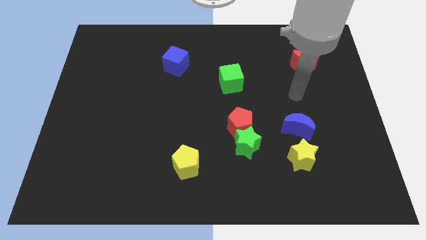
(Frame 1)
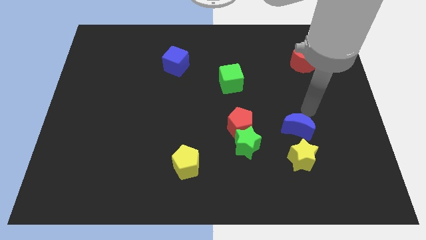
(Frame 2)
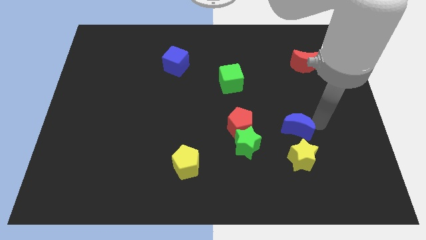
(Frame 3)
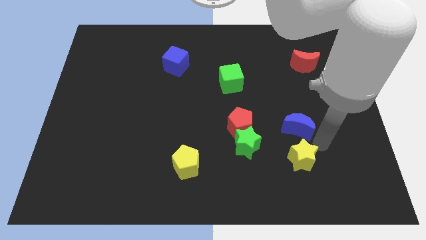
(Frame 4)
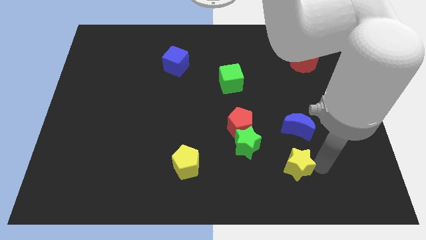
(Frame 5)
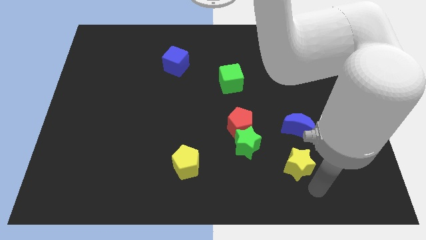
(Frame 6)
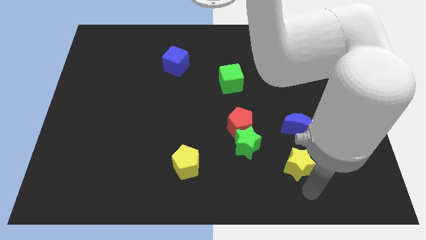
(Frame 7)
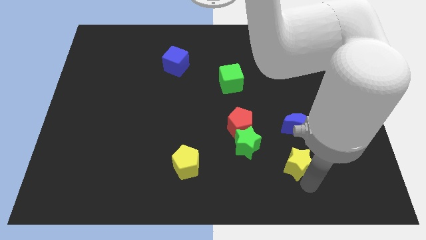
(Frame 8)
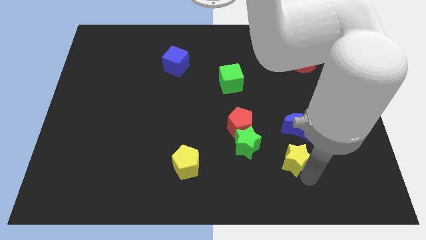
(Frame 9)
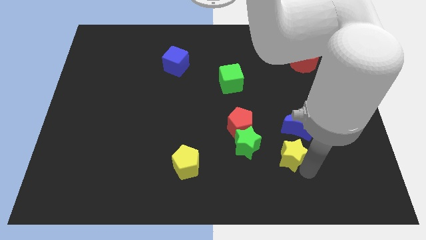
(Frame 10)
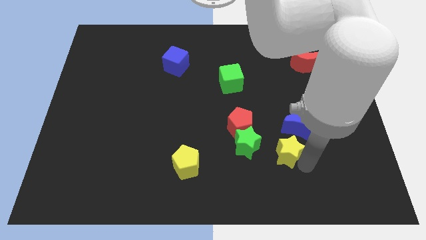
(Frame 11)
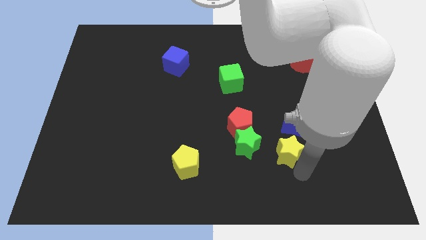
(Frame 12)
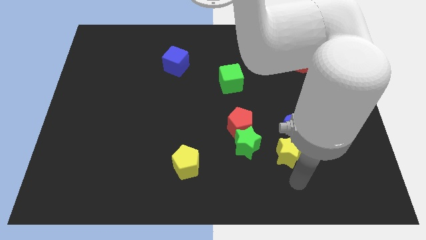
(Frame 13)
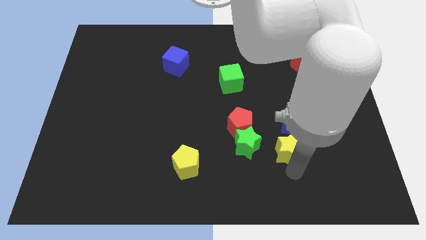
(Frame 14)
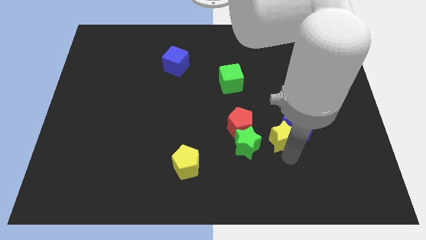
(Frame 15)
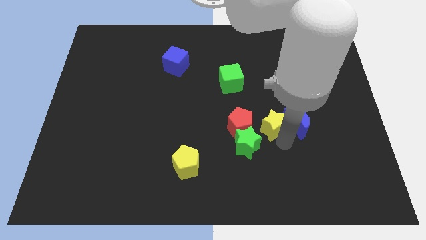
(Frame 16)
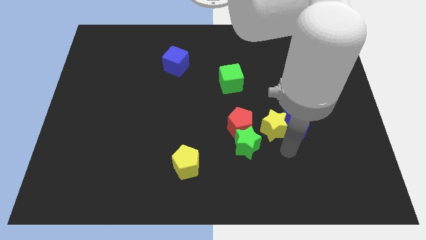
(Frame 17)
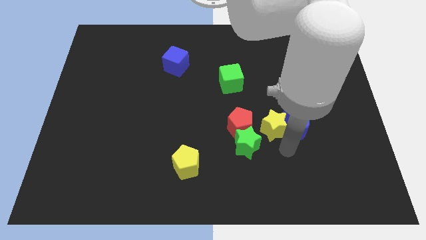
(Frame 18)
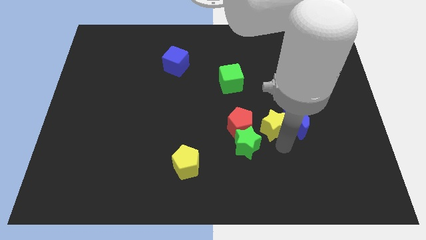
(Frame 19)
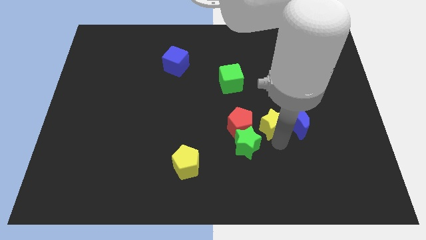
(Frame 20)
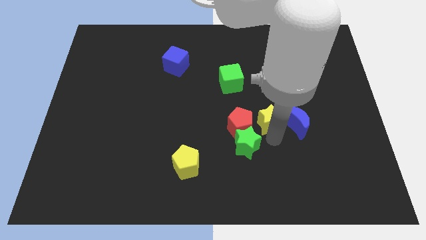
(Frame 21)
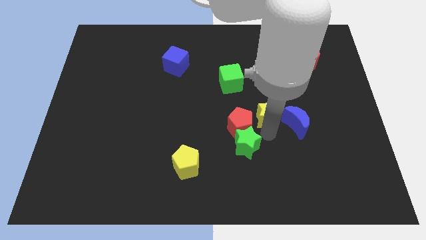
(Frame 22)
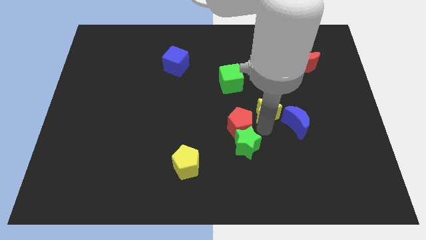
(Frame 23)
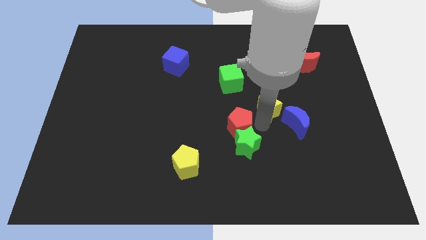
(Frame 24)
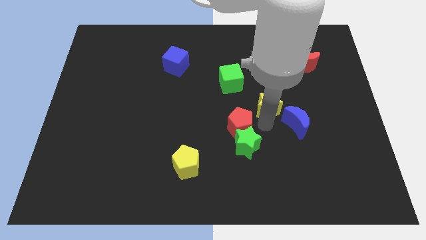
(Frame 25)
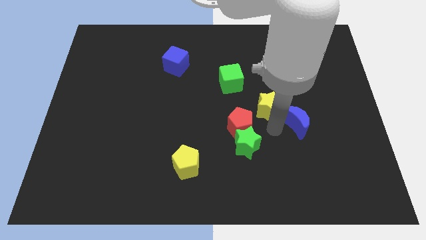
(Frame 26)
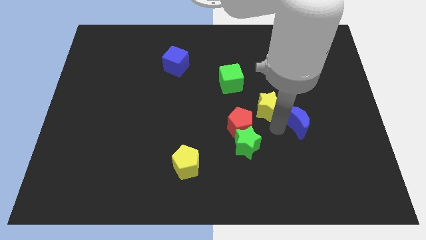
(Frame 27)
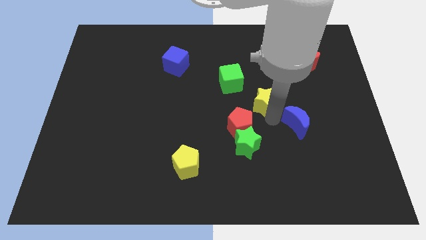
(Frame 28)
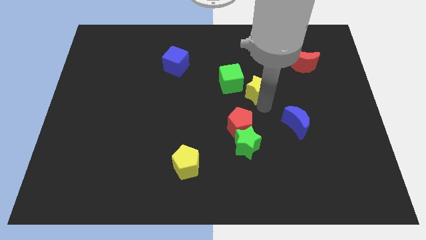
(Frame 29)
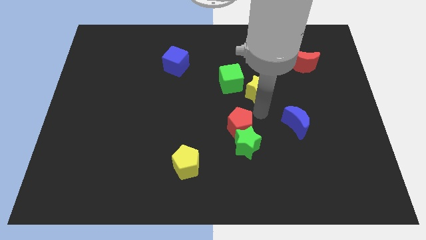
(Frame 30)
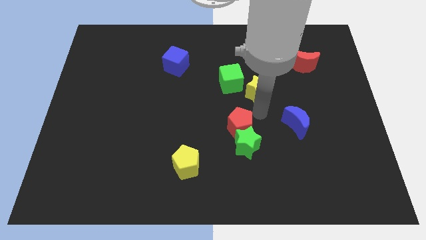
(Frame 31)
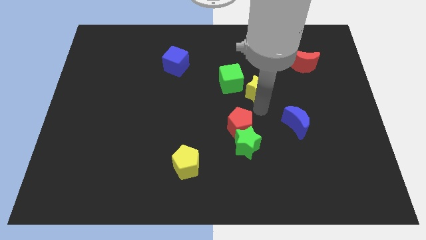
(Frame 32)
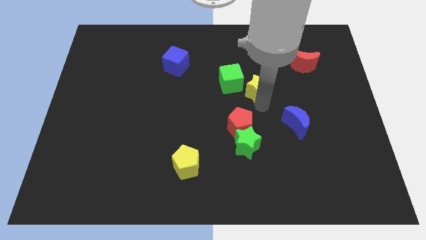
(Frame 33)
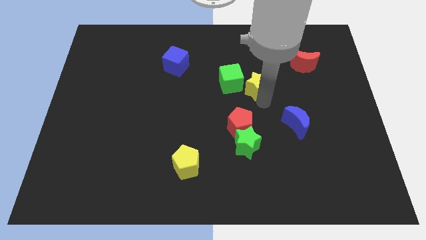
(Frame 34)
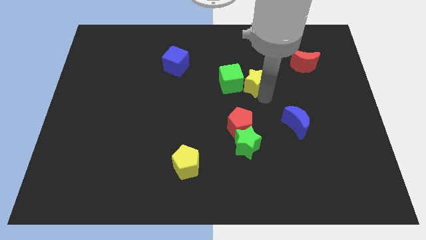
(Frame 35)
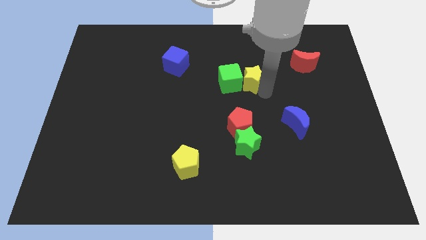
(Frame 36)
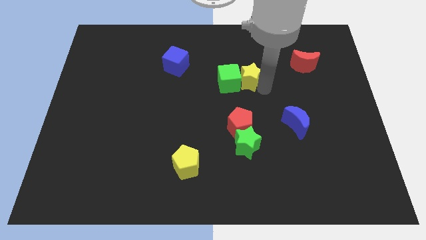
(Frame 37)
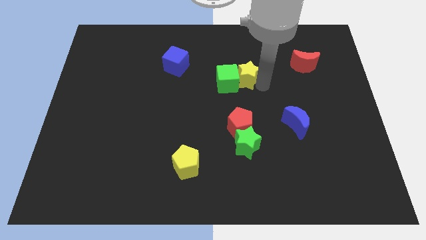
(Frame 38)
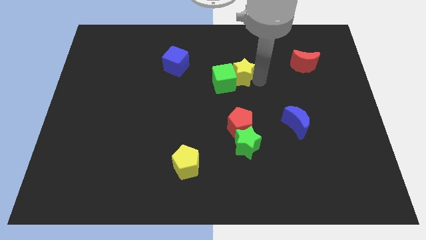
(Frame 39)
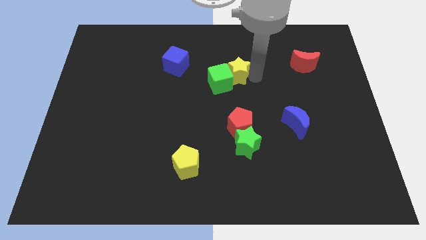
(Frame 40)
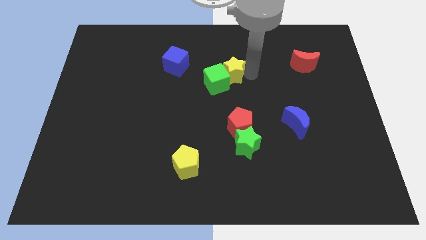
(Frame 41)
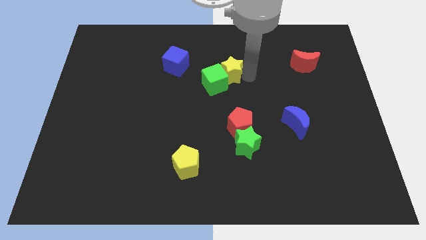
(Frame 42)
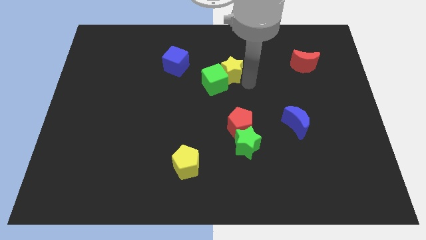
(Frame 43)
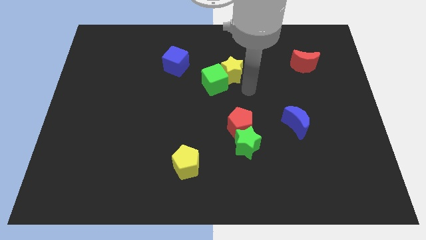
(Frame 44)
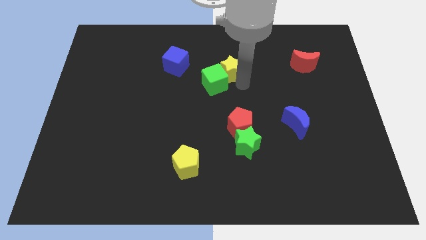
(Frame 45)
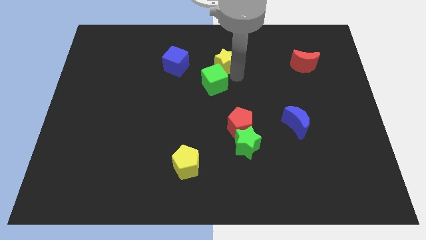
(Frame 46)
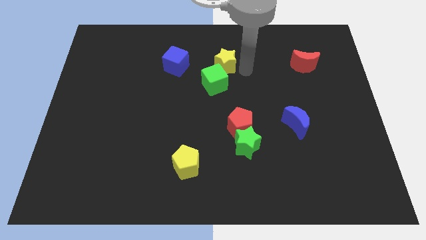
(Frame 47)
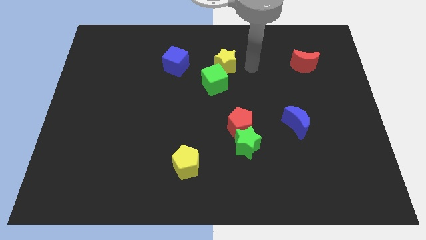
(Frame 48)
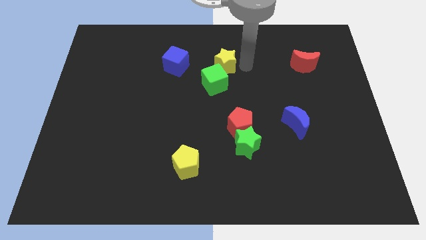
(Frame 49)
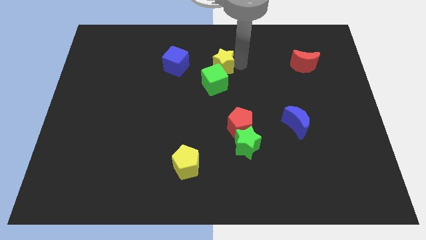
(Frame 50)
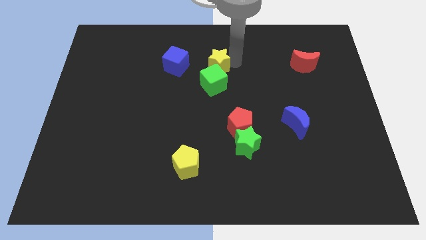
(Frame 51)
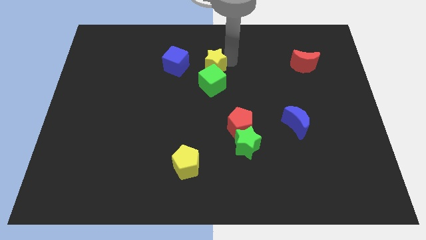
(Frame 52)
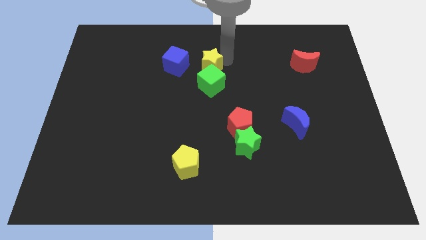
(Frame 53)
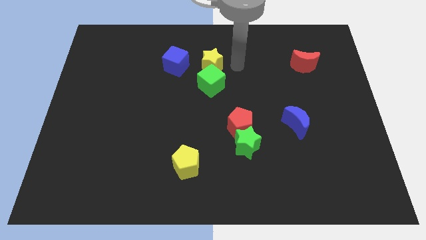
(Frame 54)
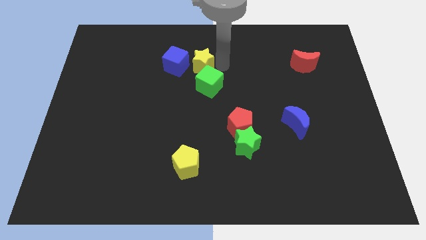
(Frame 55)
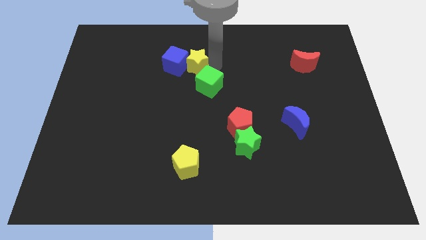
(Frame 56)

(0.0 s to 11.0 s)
push the yellow star next to the blue cube

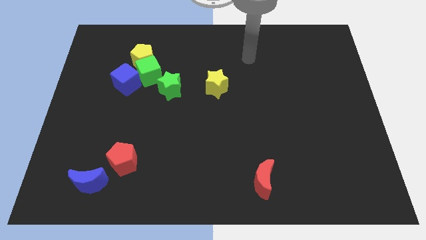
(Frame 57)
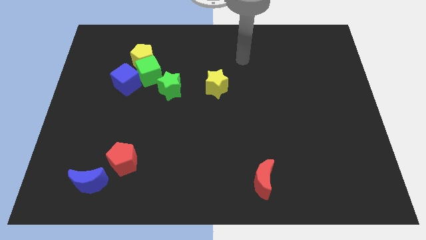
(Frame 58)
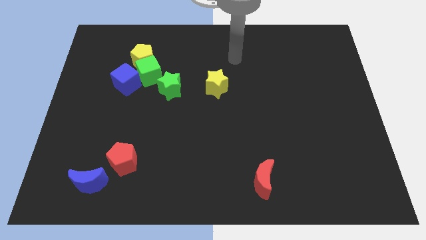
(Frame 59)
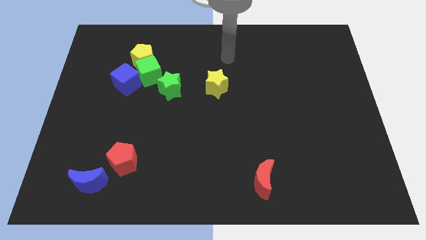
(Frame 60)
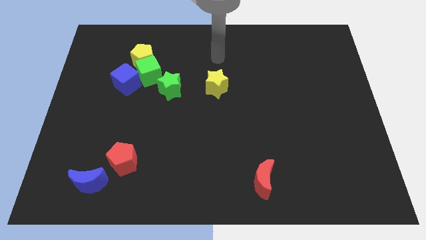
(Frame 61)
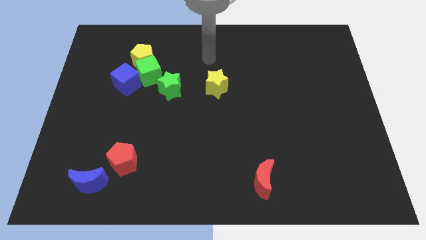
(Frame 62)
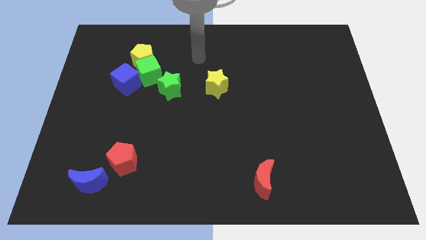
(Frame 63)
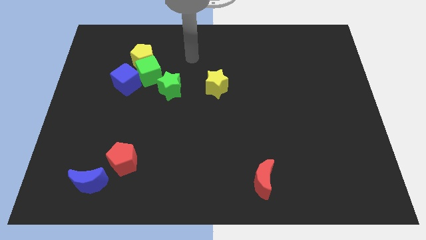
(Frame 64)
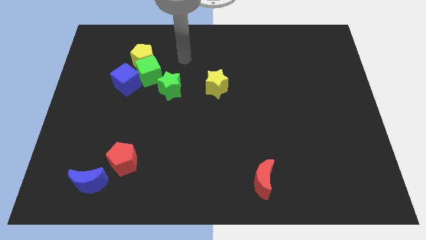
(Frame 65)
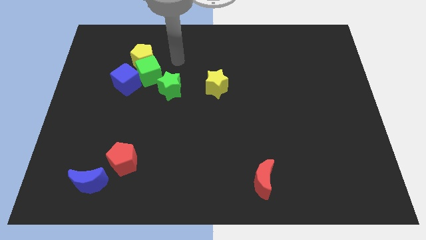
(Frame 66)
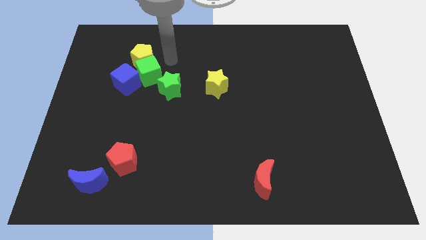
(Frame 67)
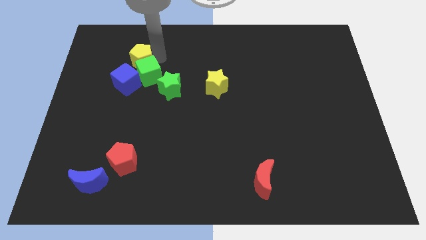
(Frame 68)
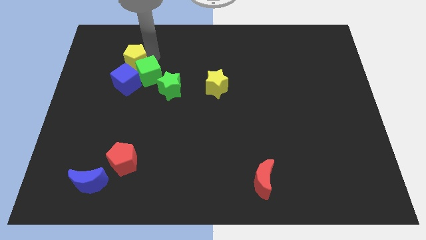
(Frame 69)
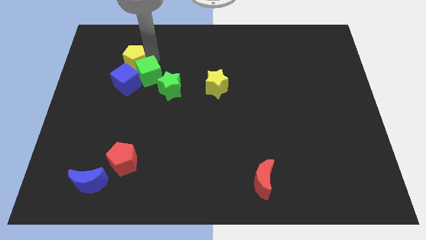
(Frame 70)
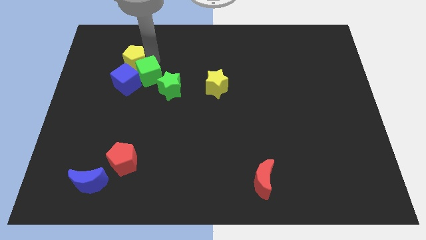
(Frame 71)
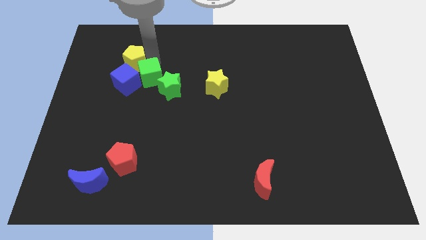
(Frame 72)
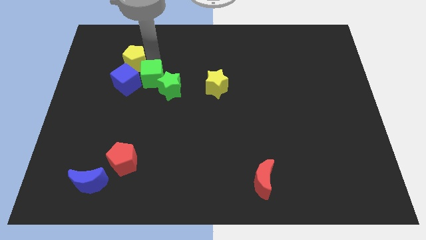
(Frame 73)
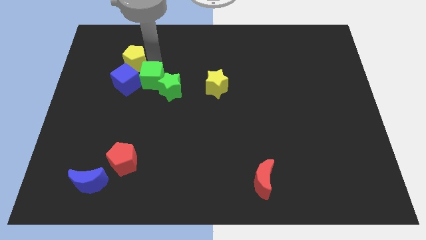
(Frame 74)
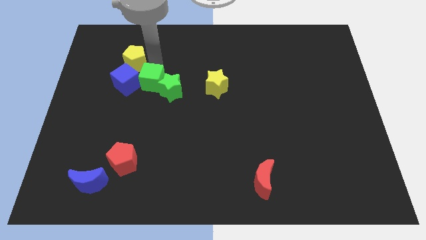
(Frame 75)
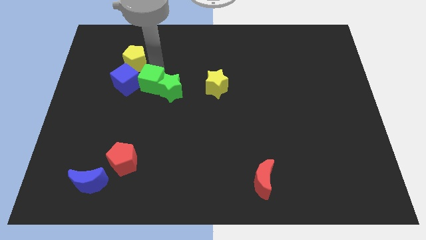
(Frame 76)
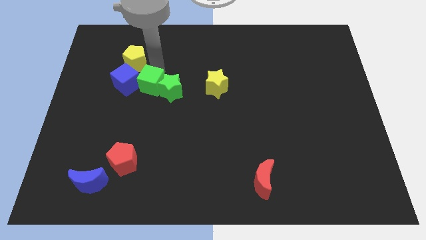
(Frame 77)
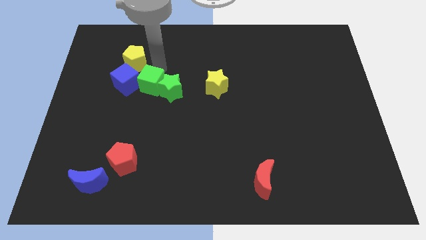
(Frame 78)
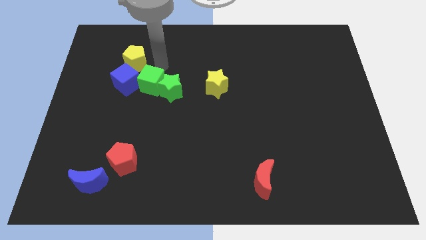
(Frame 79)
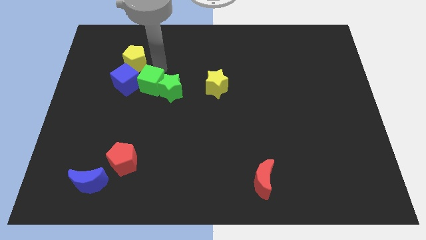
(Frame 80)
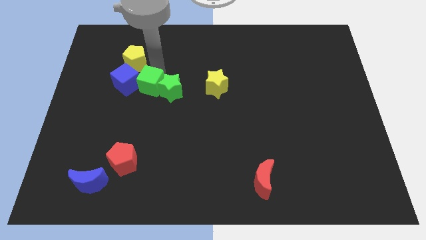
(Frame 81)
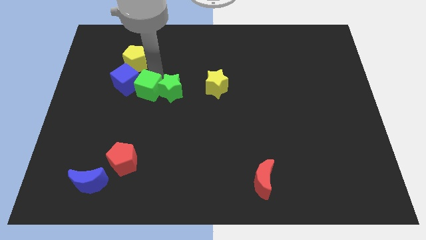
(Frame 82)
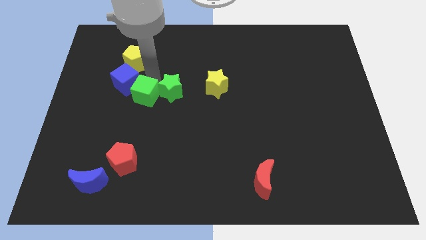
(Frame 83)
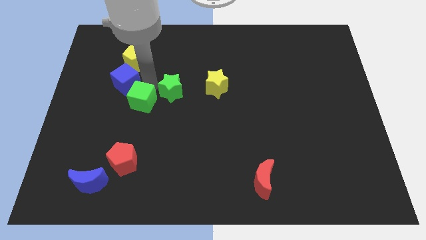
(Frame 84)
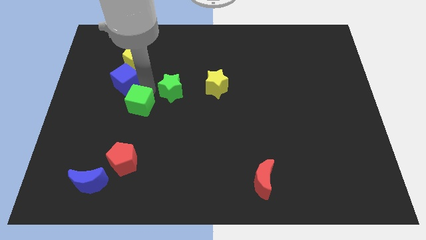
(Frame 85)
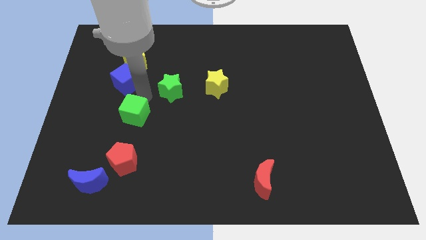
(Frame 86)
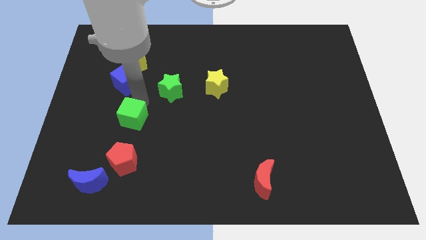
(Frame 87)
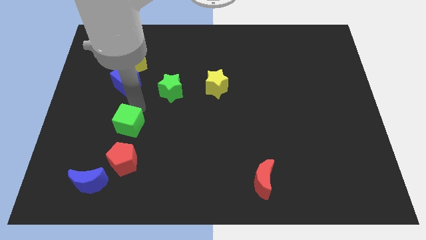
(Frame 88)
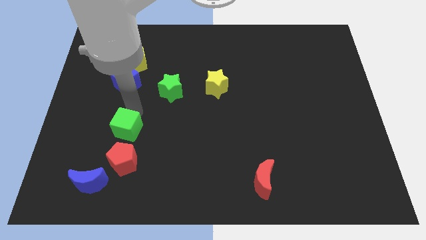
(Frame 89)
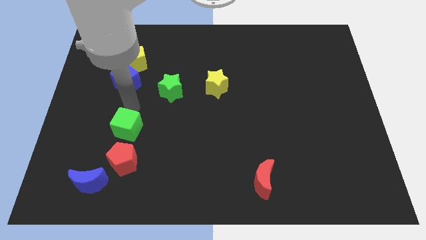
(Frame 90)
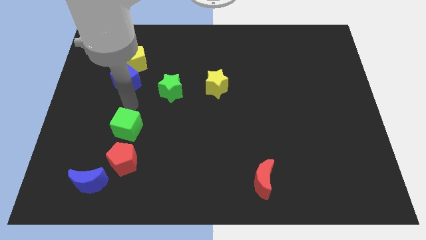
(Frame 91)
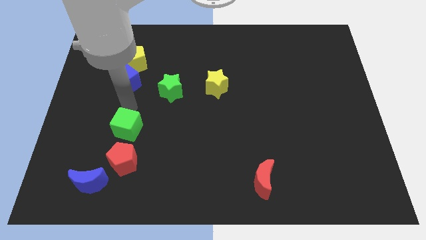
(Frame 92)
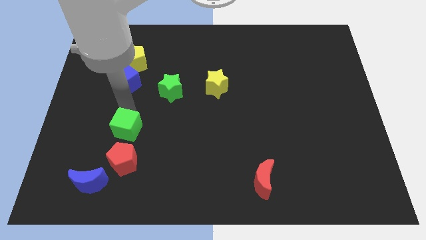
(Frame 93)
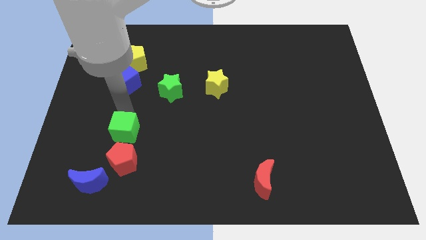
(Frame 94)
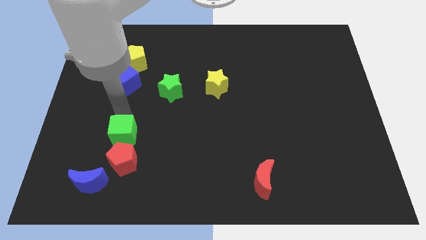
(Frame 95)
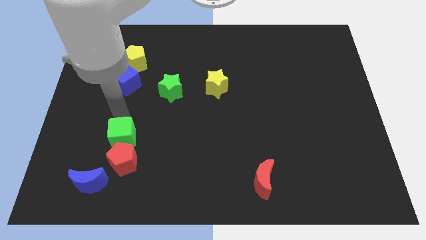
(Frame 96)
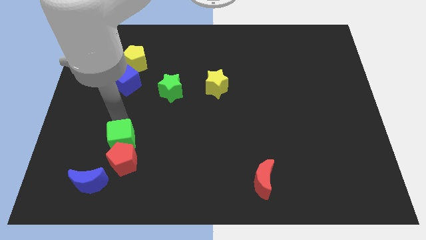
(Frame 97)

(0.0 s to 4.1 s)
put the green cube next to the red pentagon
